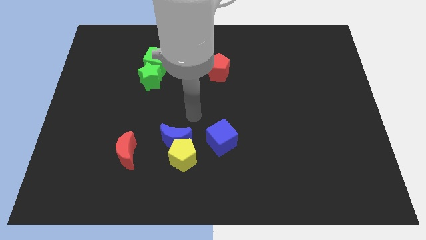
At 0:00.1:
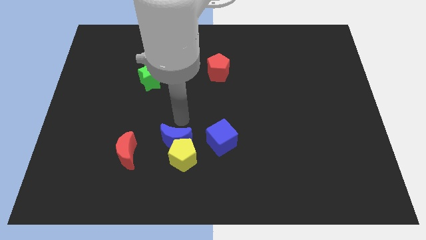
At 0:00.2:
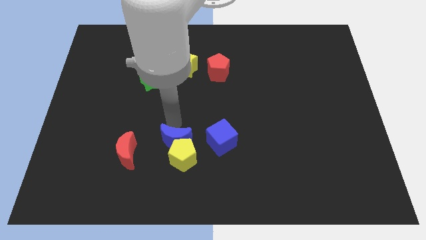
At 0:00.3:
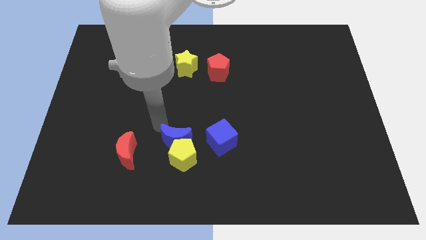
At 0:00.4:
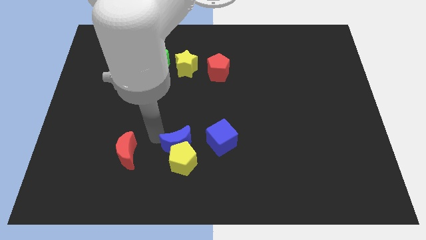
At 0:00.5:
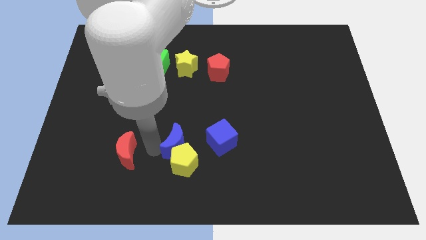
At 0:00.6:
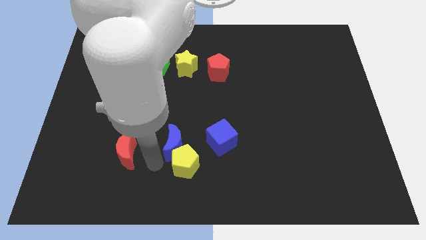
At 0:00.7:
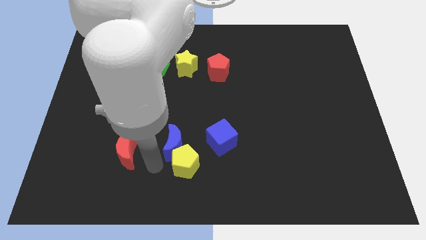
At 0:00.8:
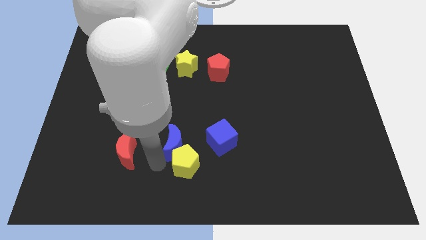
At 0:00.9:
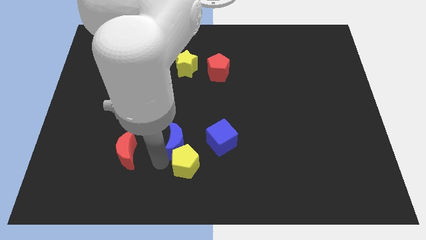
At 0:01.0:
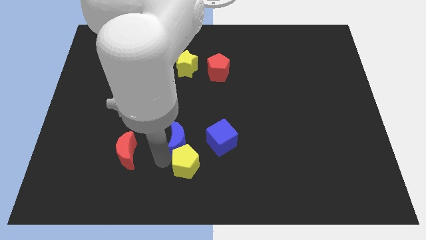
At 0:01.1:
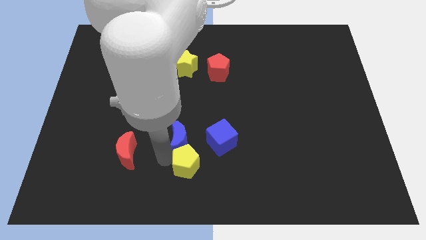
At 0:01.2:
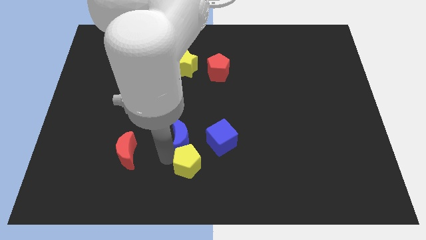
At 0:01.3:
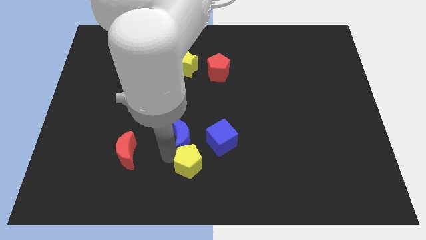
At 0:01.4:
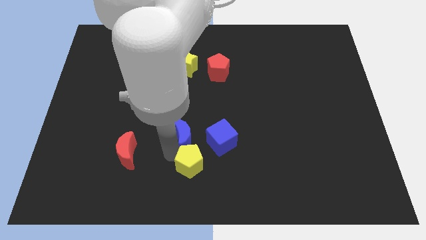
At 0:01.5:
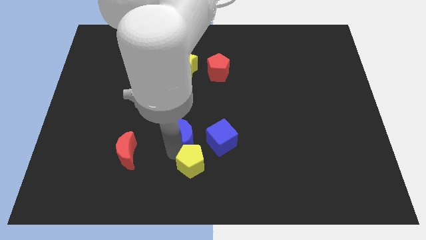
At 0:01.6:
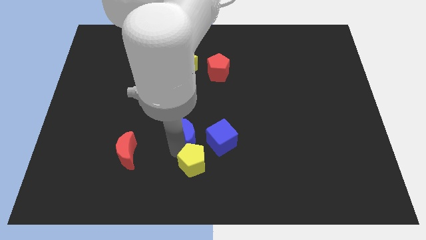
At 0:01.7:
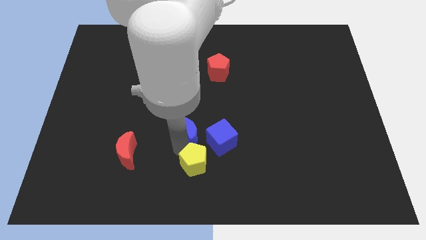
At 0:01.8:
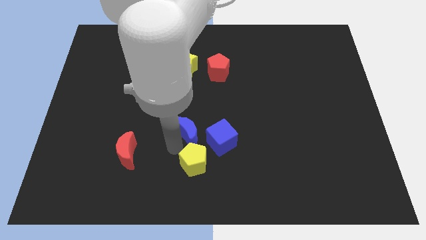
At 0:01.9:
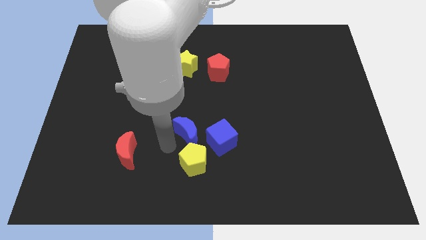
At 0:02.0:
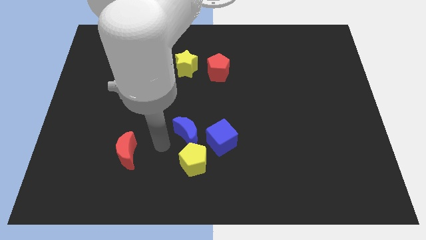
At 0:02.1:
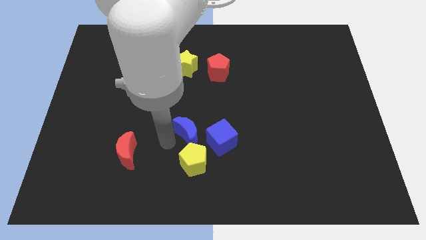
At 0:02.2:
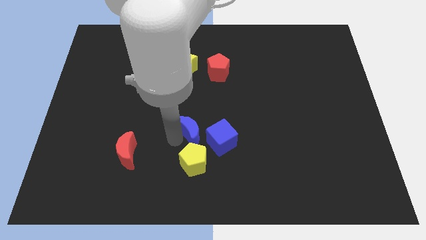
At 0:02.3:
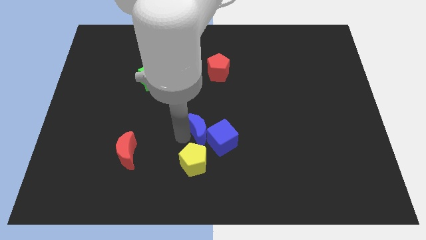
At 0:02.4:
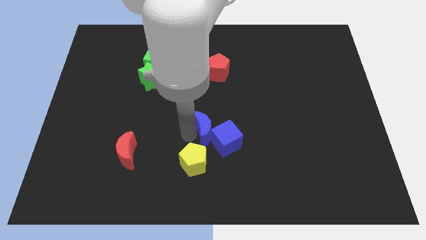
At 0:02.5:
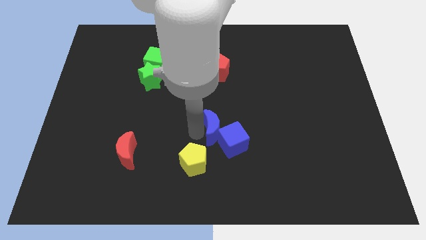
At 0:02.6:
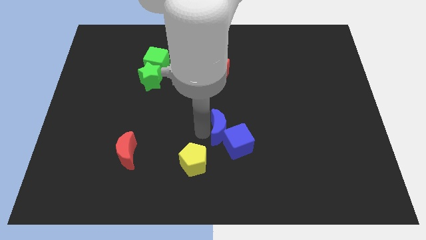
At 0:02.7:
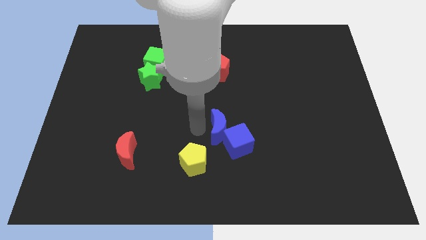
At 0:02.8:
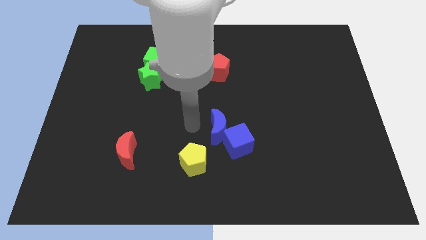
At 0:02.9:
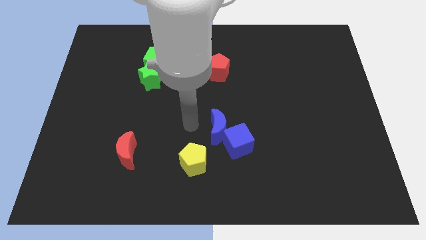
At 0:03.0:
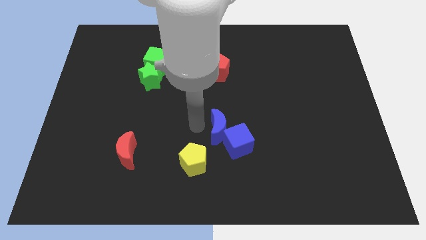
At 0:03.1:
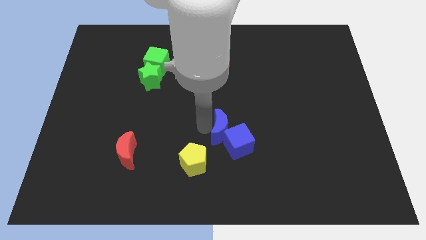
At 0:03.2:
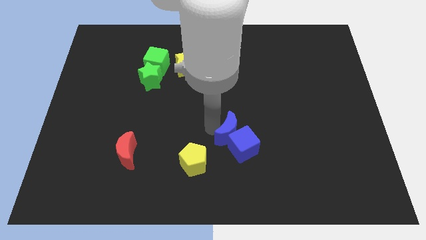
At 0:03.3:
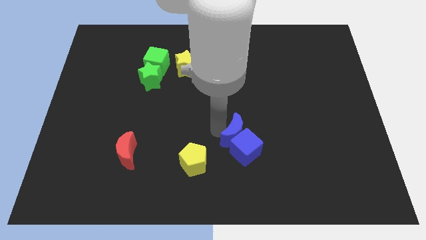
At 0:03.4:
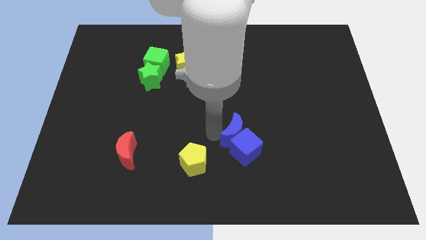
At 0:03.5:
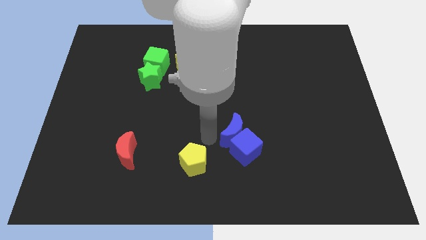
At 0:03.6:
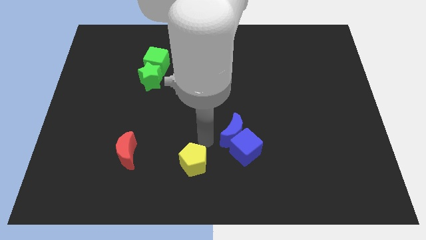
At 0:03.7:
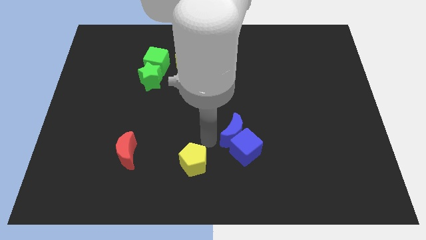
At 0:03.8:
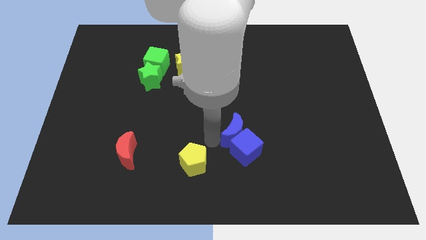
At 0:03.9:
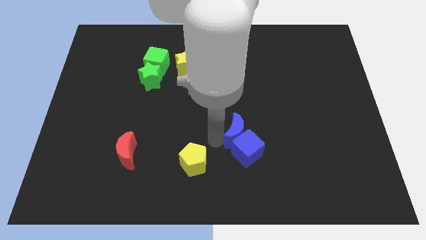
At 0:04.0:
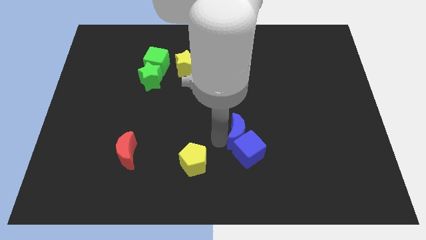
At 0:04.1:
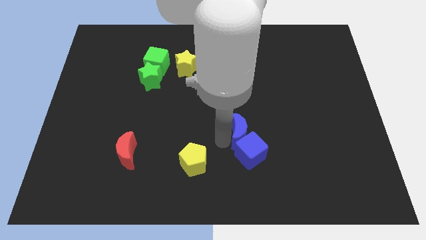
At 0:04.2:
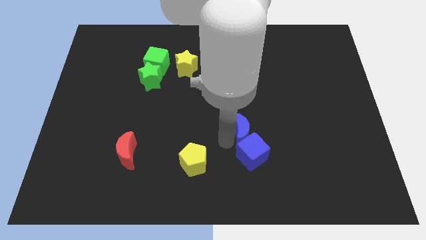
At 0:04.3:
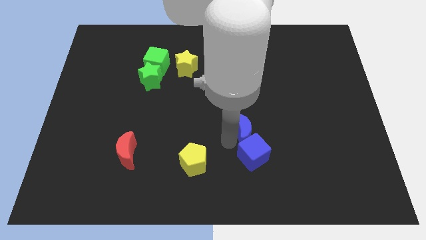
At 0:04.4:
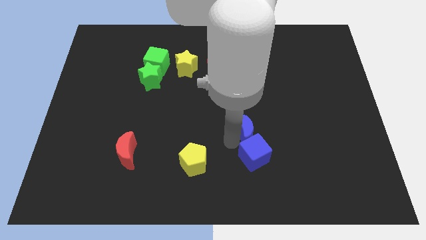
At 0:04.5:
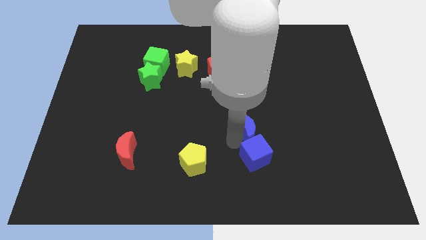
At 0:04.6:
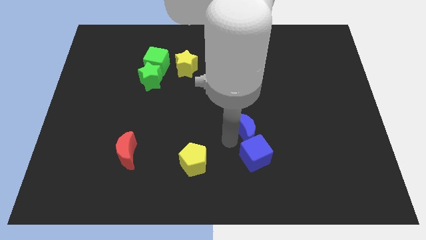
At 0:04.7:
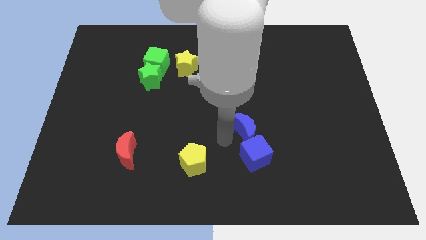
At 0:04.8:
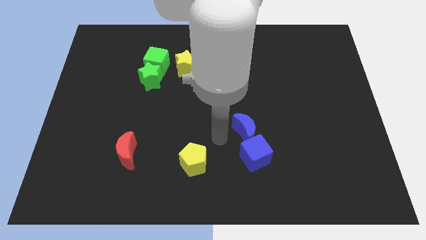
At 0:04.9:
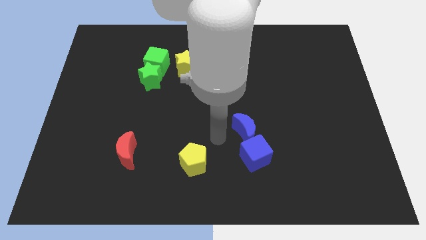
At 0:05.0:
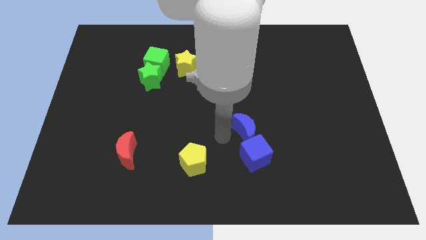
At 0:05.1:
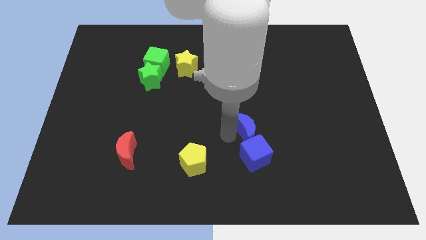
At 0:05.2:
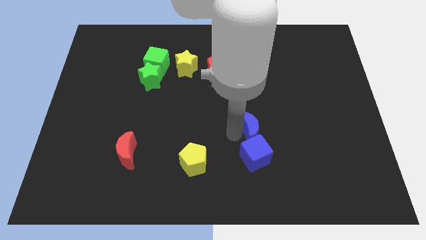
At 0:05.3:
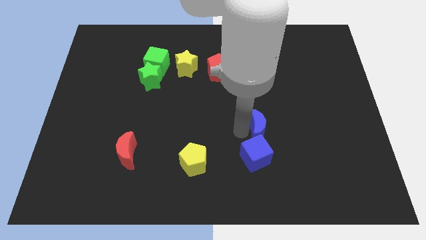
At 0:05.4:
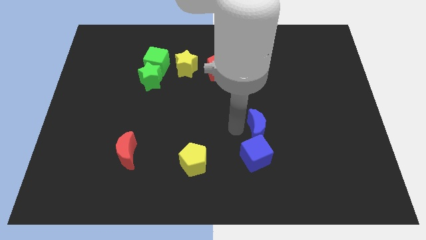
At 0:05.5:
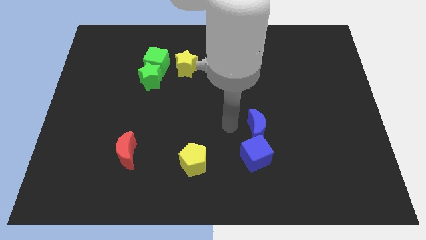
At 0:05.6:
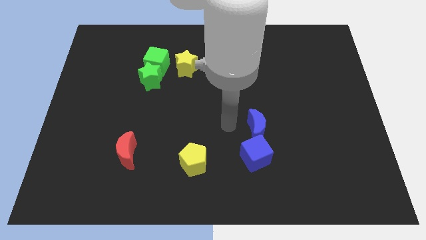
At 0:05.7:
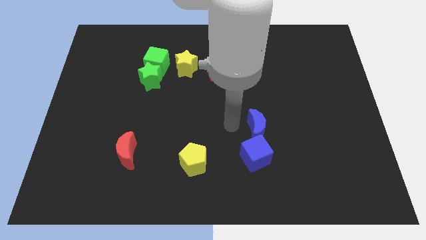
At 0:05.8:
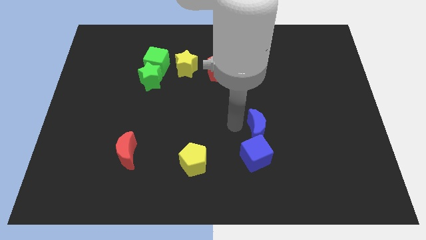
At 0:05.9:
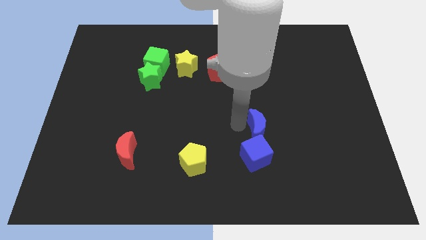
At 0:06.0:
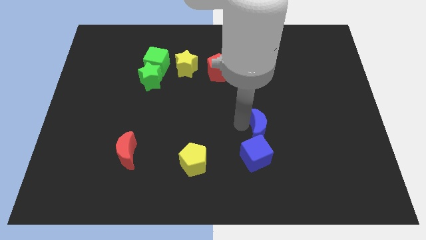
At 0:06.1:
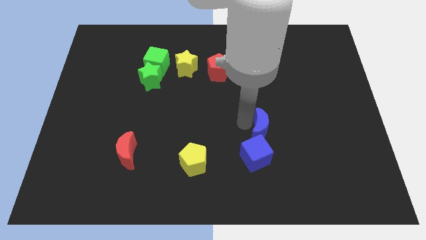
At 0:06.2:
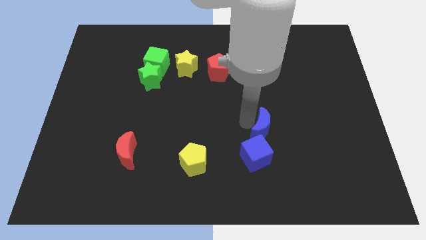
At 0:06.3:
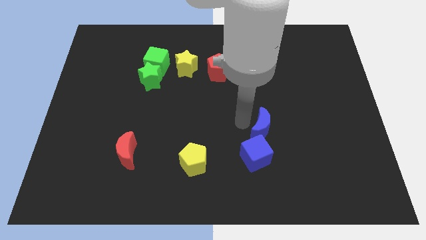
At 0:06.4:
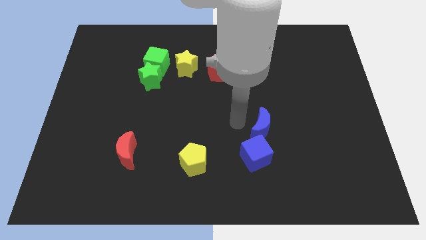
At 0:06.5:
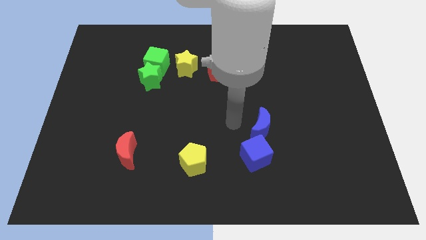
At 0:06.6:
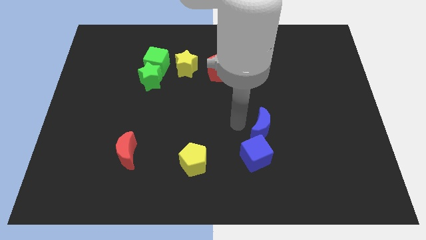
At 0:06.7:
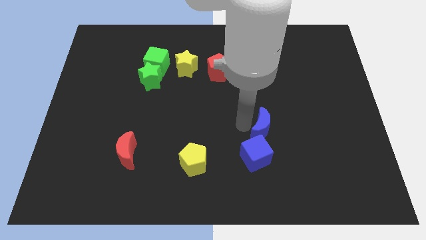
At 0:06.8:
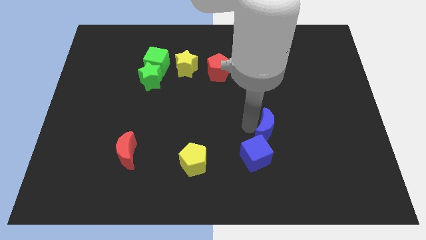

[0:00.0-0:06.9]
slide the blue moon right

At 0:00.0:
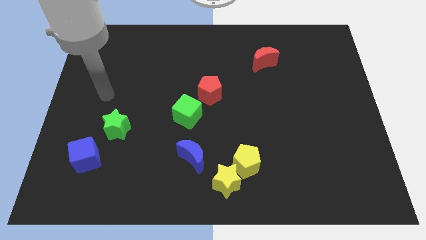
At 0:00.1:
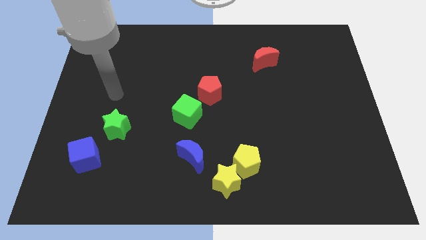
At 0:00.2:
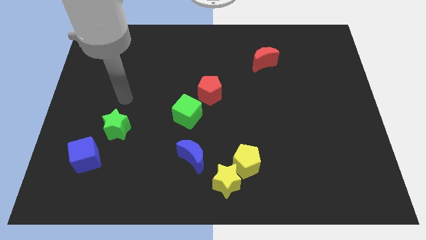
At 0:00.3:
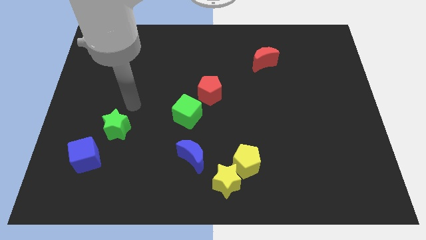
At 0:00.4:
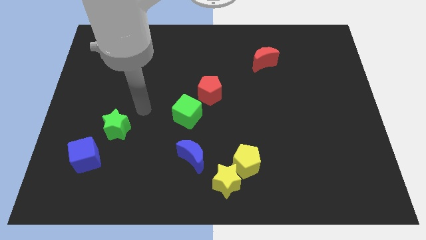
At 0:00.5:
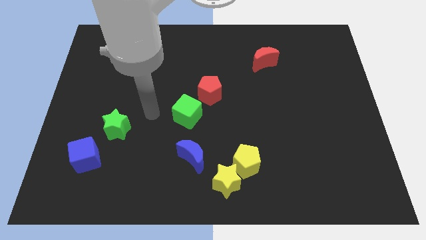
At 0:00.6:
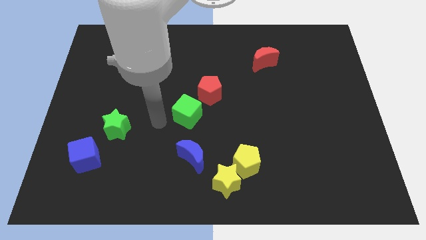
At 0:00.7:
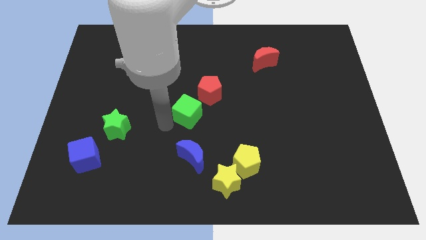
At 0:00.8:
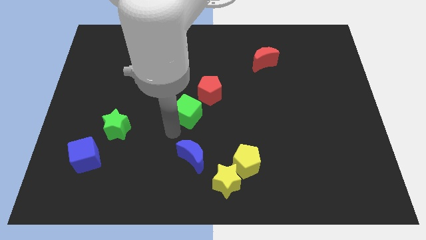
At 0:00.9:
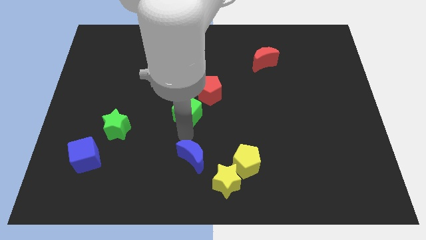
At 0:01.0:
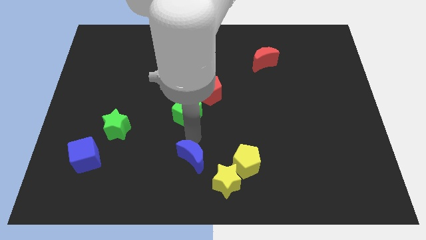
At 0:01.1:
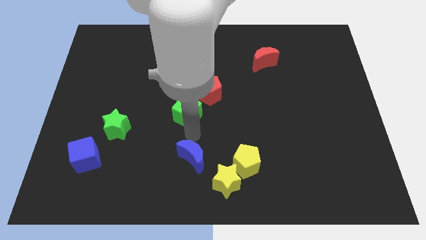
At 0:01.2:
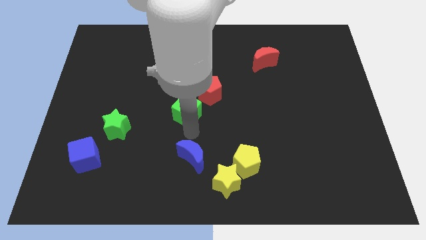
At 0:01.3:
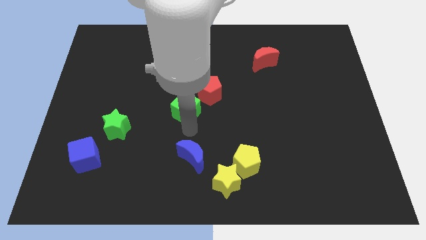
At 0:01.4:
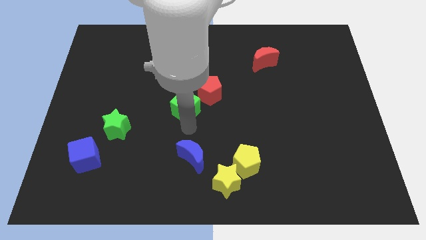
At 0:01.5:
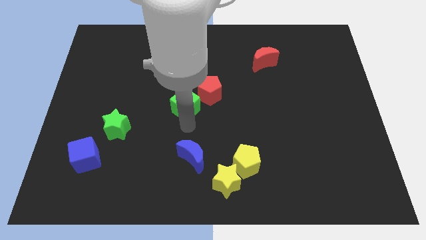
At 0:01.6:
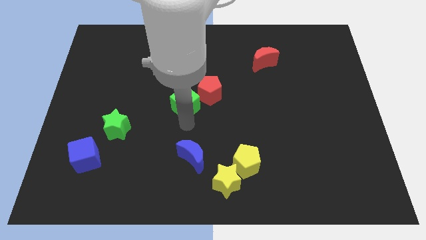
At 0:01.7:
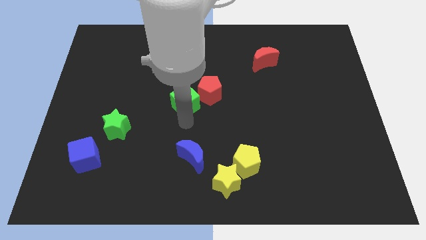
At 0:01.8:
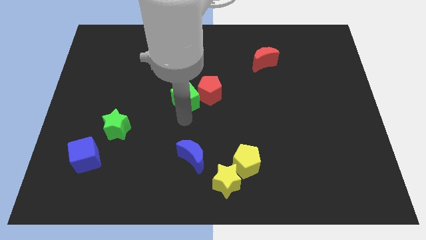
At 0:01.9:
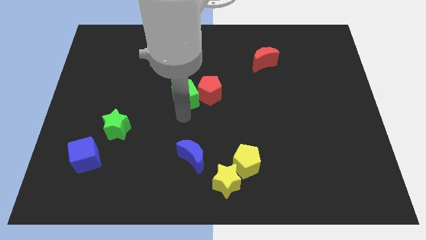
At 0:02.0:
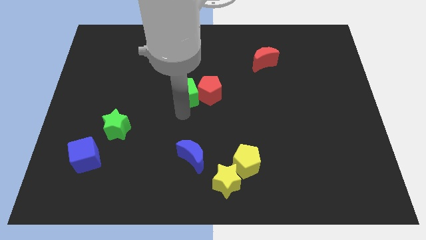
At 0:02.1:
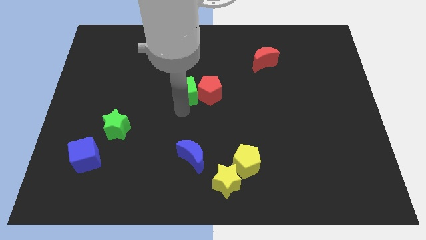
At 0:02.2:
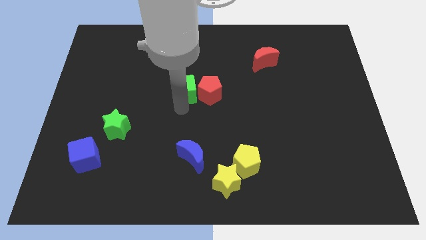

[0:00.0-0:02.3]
slide the green cube slightly up
